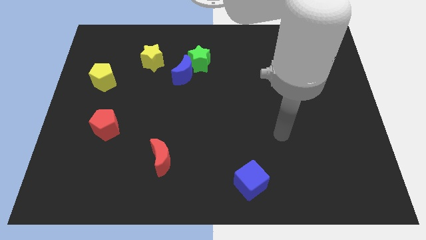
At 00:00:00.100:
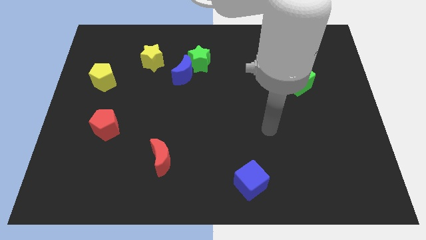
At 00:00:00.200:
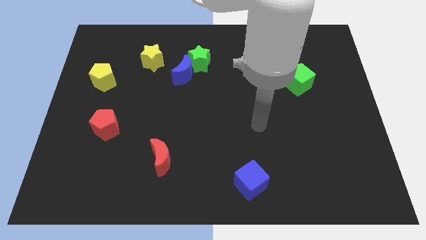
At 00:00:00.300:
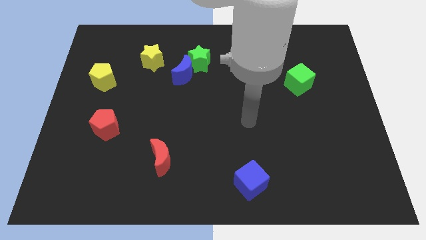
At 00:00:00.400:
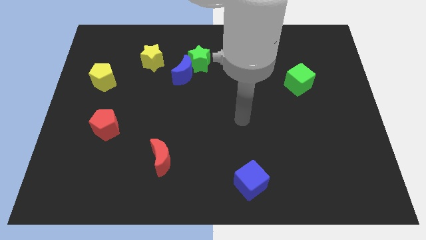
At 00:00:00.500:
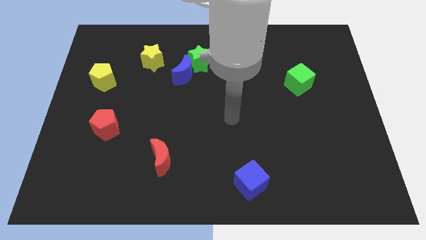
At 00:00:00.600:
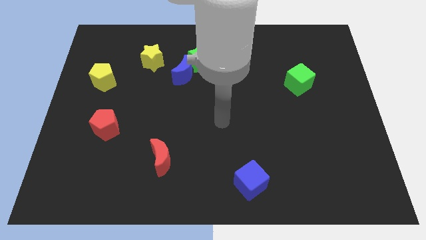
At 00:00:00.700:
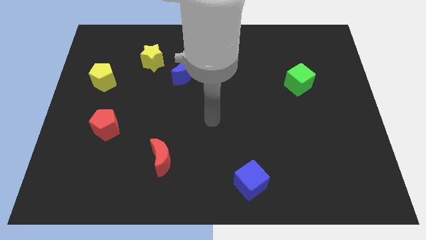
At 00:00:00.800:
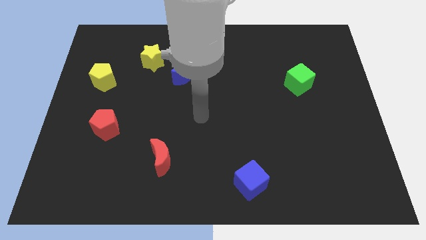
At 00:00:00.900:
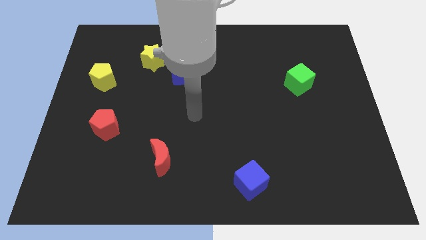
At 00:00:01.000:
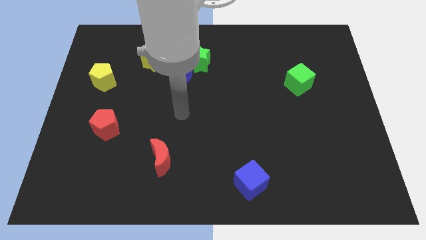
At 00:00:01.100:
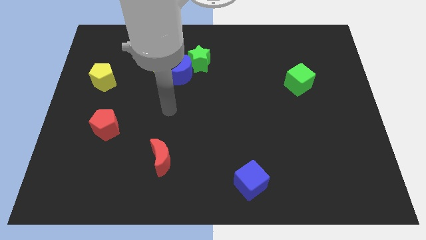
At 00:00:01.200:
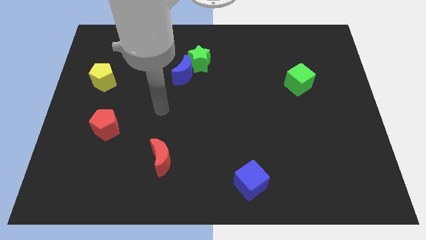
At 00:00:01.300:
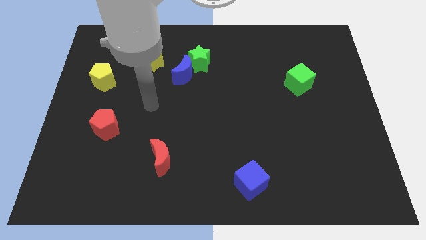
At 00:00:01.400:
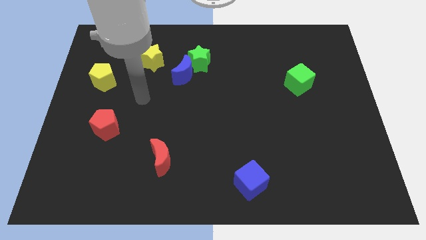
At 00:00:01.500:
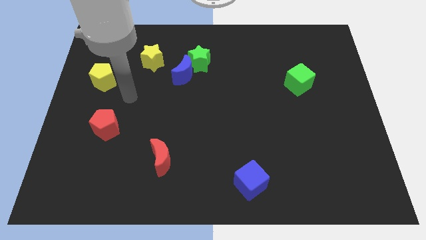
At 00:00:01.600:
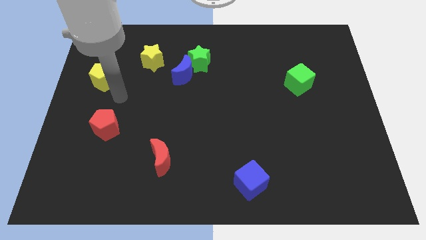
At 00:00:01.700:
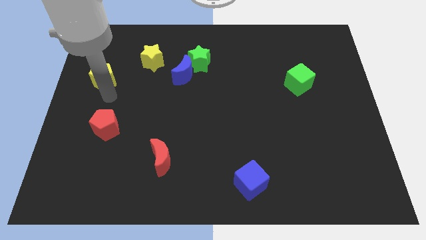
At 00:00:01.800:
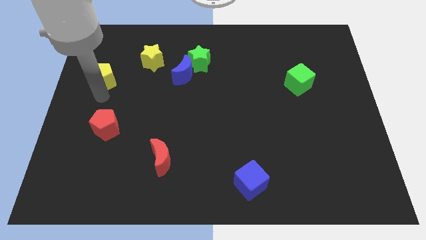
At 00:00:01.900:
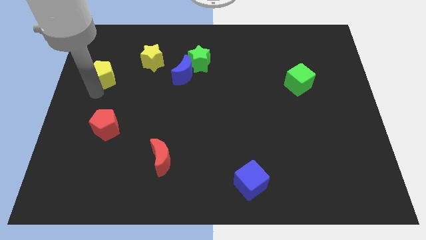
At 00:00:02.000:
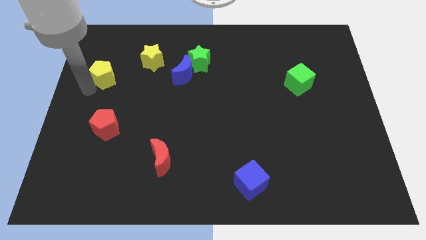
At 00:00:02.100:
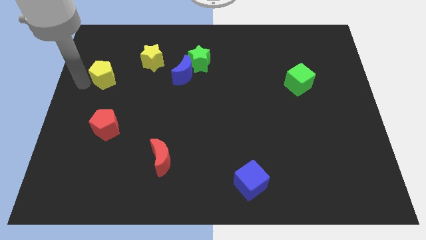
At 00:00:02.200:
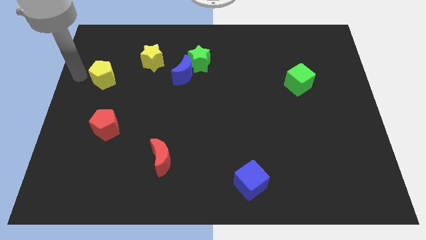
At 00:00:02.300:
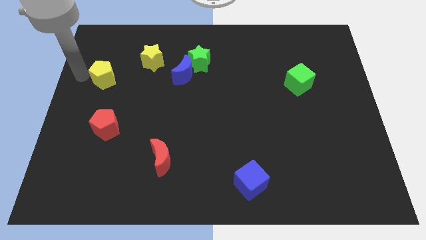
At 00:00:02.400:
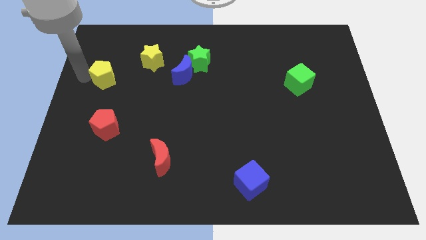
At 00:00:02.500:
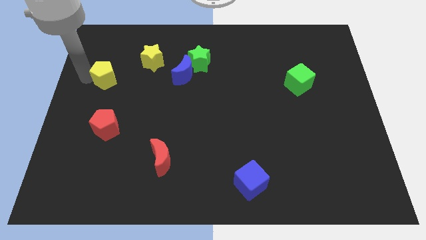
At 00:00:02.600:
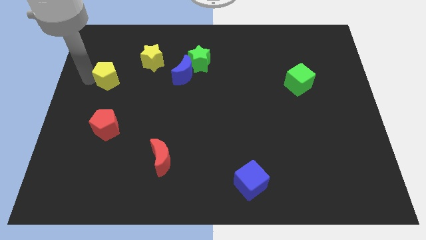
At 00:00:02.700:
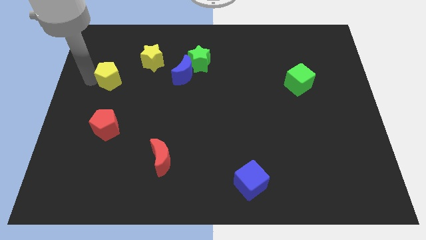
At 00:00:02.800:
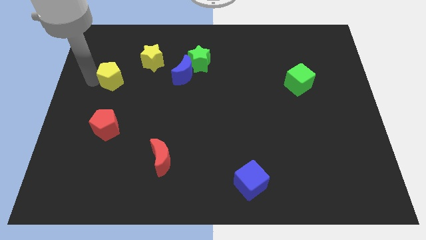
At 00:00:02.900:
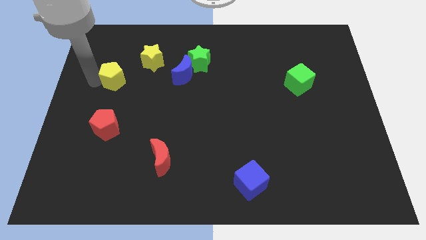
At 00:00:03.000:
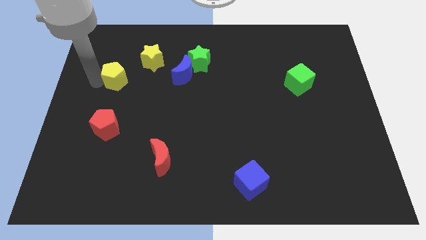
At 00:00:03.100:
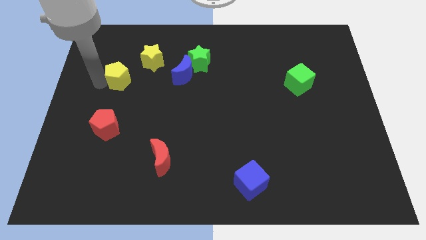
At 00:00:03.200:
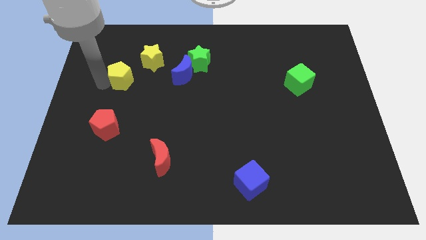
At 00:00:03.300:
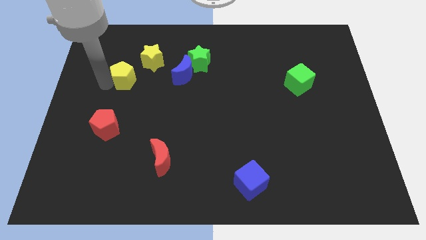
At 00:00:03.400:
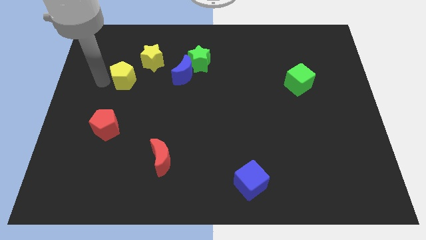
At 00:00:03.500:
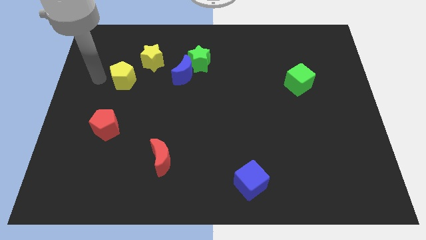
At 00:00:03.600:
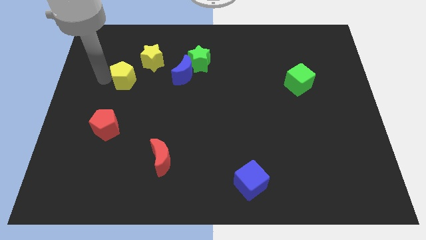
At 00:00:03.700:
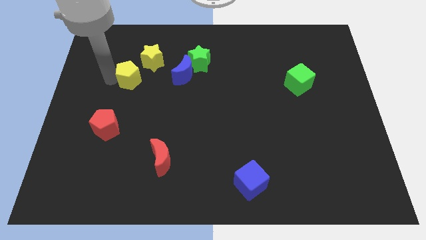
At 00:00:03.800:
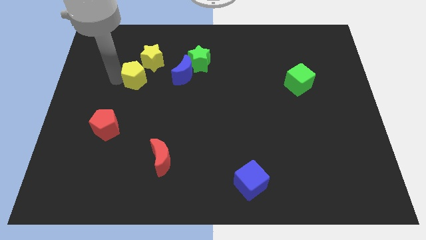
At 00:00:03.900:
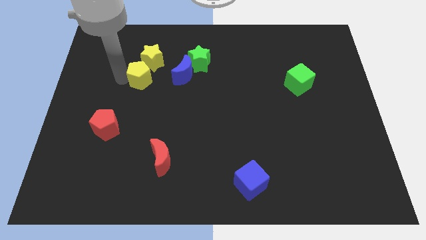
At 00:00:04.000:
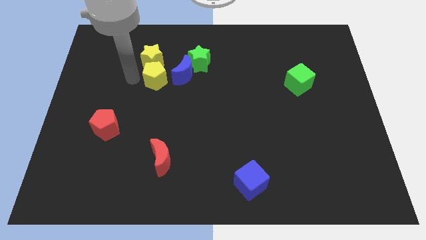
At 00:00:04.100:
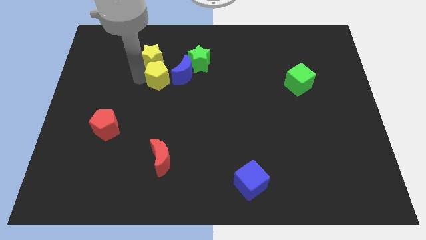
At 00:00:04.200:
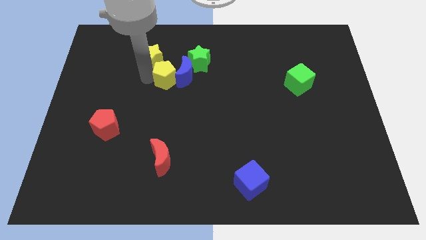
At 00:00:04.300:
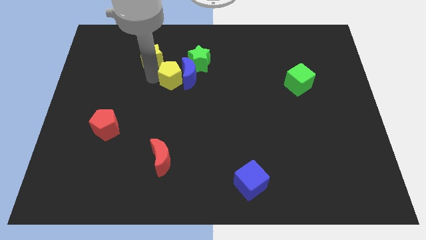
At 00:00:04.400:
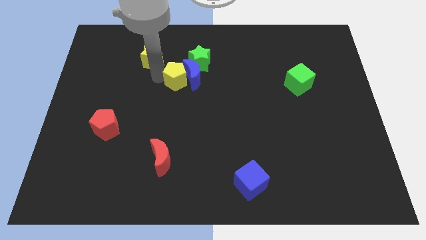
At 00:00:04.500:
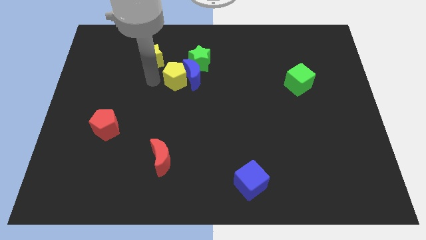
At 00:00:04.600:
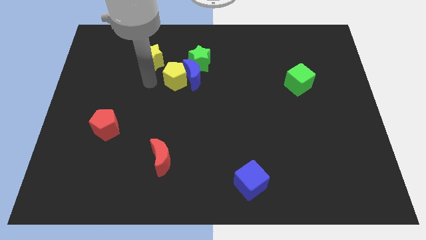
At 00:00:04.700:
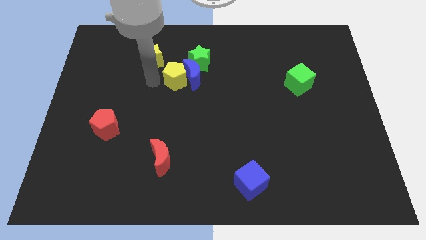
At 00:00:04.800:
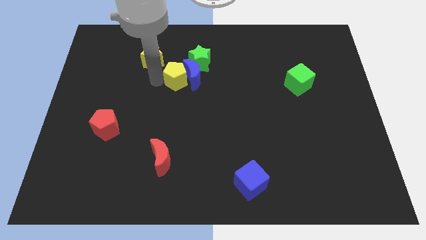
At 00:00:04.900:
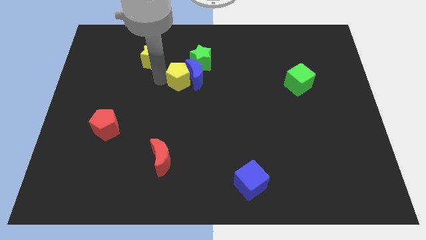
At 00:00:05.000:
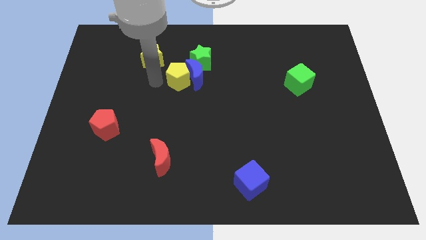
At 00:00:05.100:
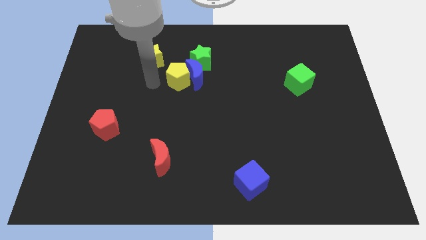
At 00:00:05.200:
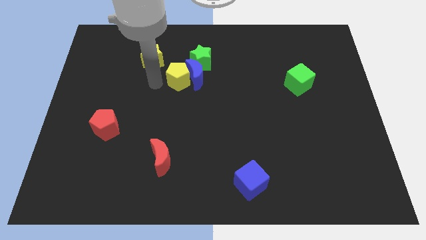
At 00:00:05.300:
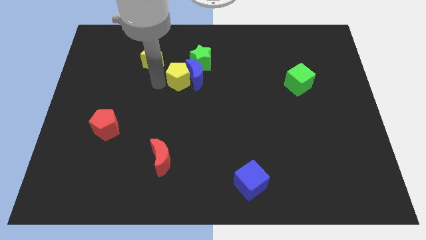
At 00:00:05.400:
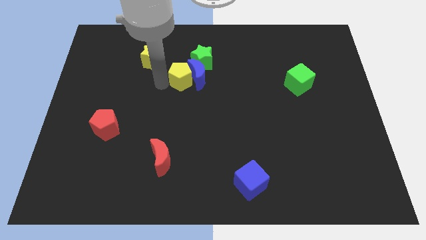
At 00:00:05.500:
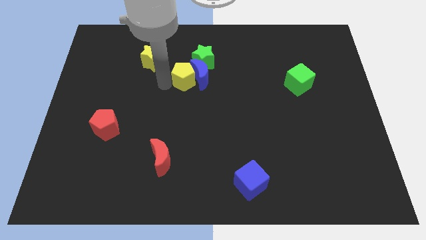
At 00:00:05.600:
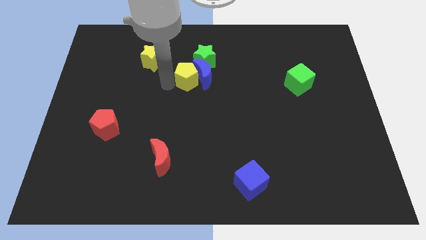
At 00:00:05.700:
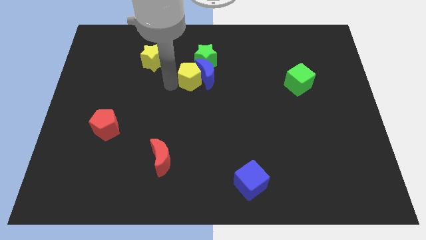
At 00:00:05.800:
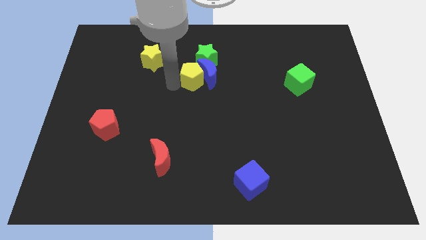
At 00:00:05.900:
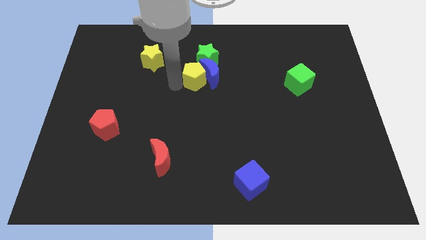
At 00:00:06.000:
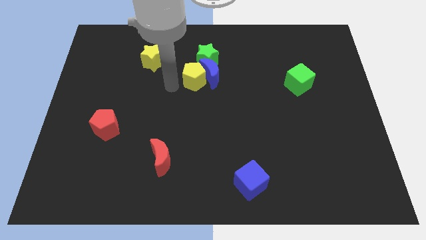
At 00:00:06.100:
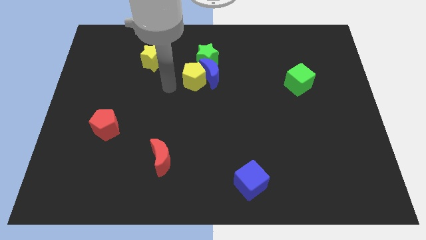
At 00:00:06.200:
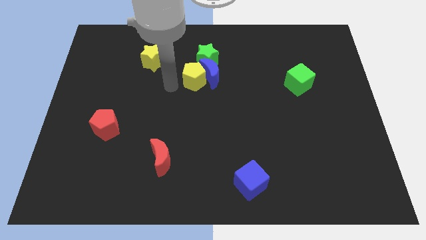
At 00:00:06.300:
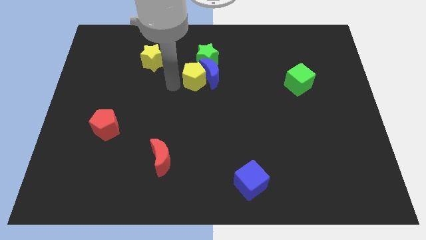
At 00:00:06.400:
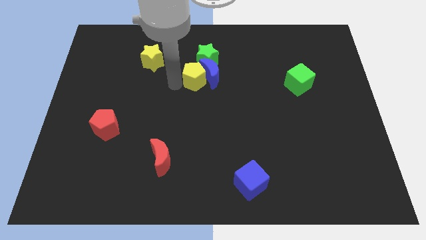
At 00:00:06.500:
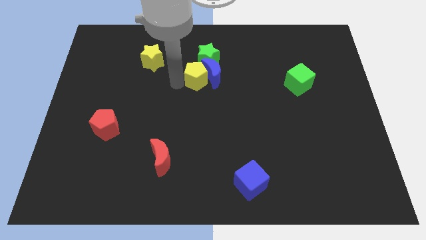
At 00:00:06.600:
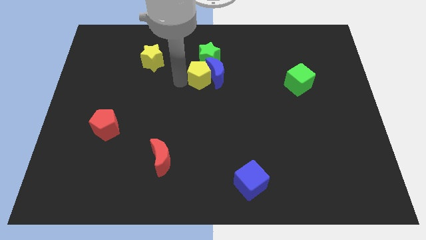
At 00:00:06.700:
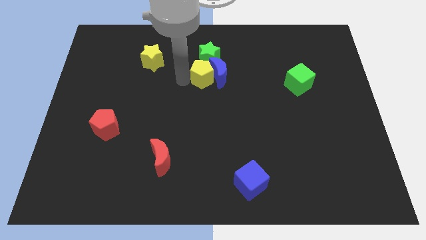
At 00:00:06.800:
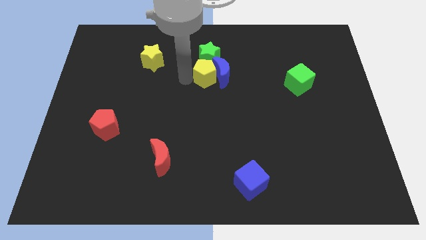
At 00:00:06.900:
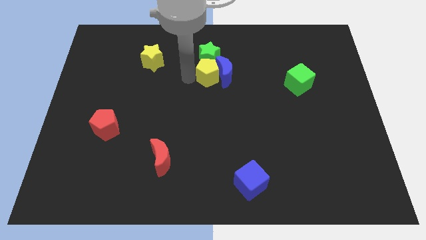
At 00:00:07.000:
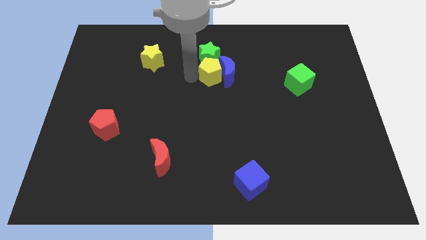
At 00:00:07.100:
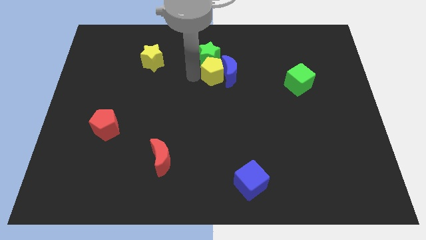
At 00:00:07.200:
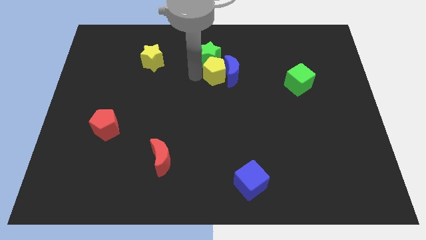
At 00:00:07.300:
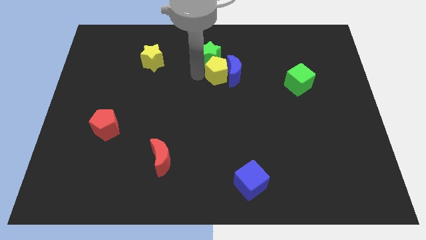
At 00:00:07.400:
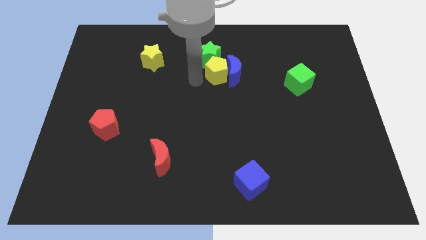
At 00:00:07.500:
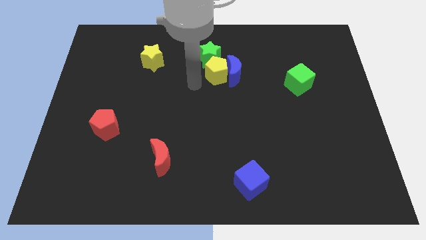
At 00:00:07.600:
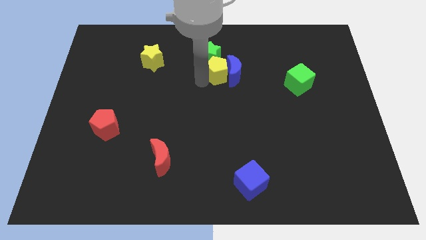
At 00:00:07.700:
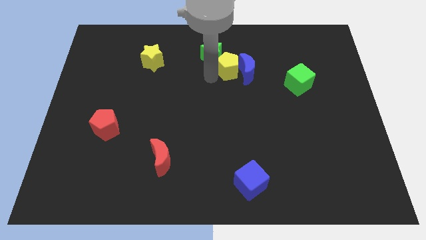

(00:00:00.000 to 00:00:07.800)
put the yellow pentagon right of the green star
